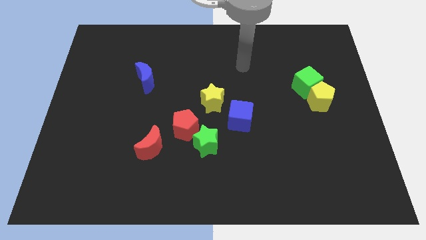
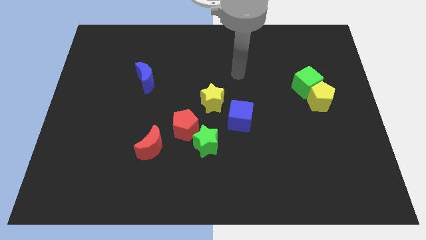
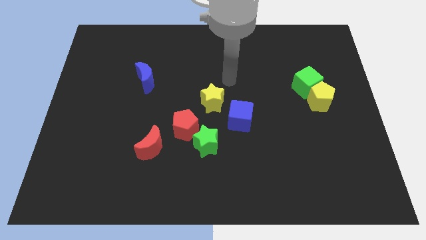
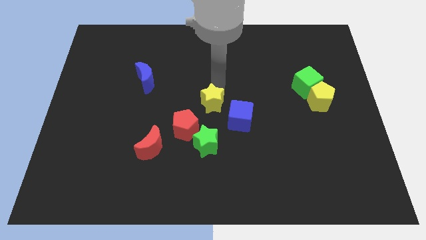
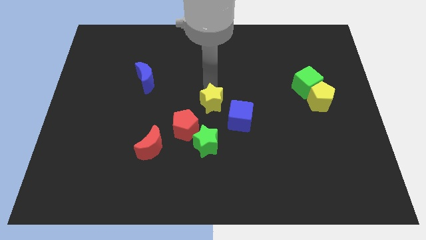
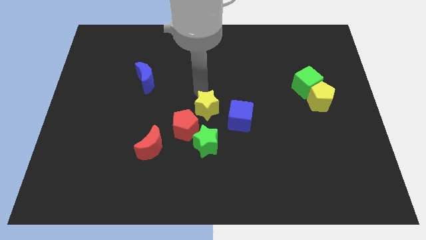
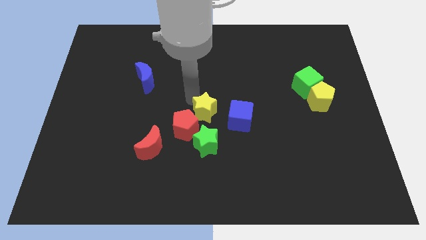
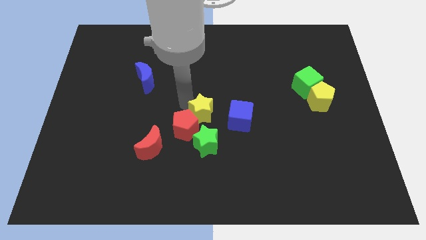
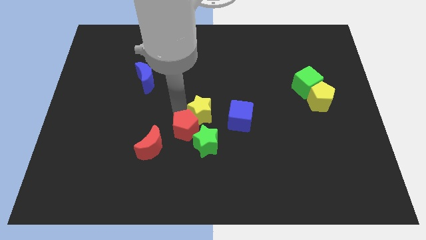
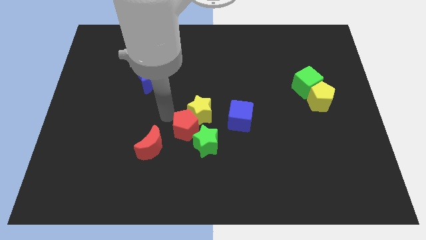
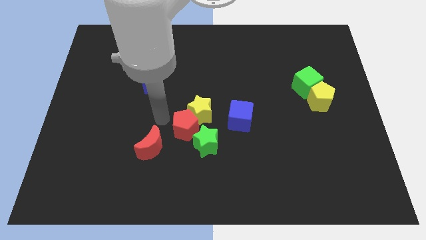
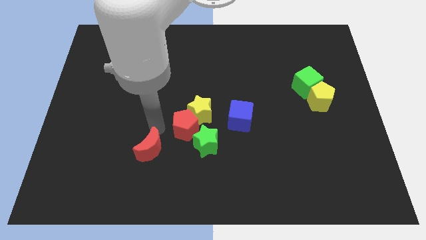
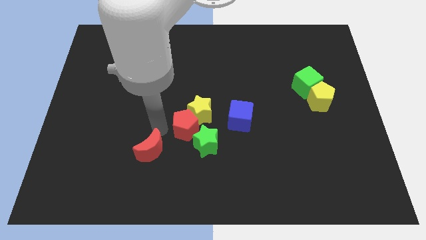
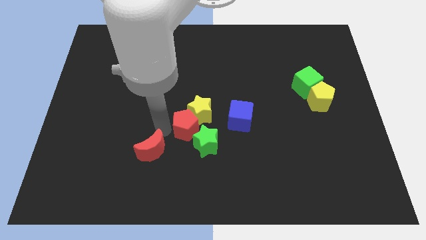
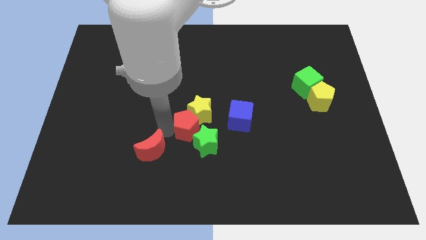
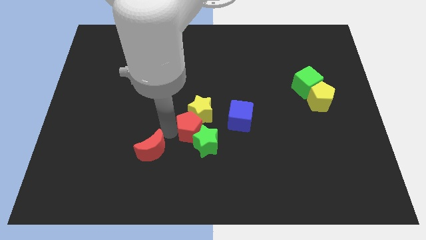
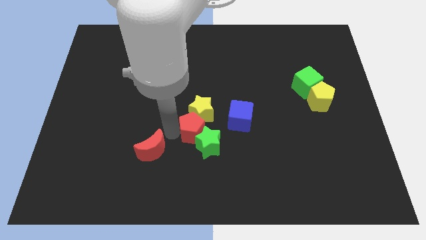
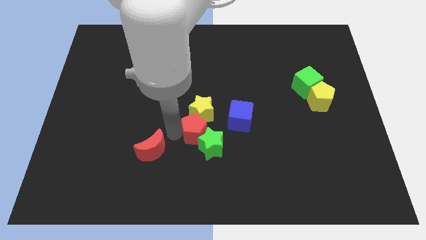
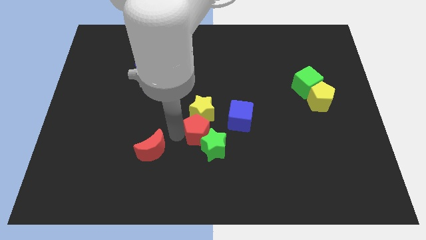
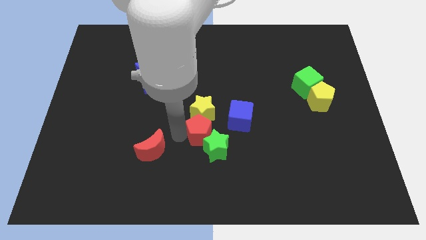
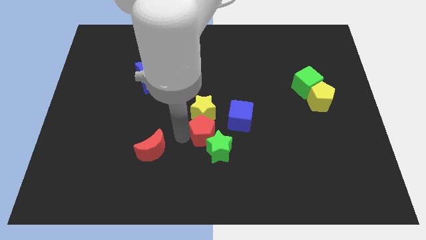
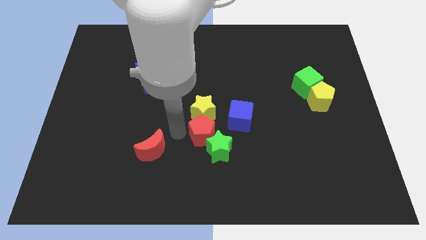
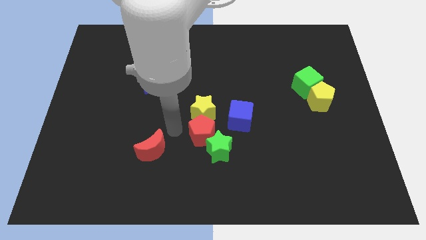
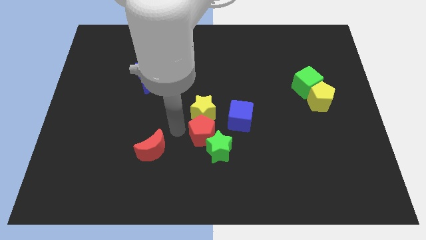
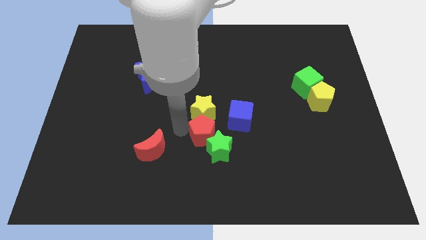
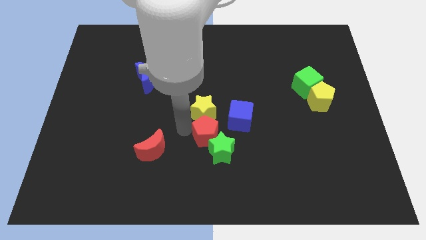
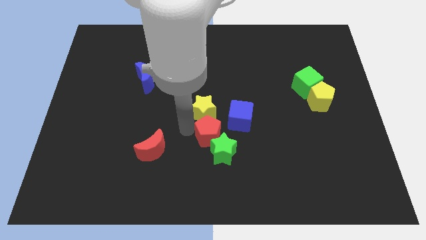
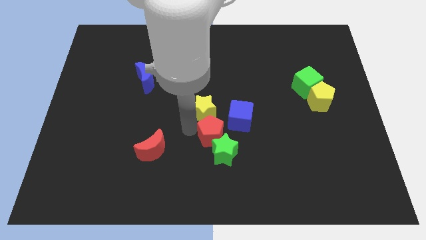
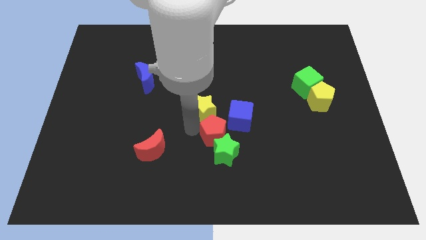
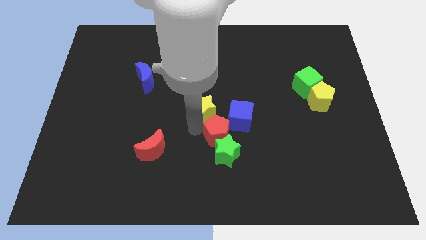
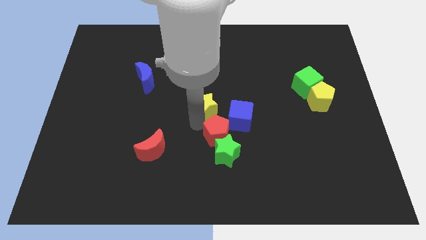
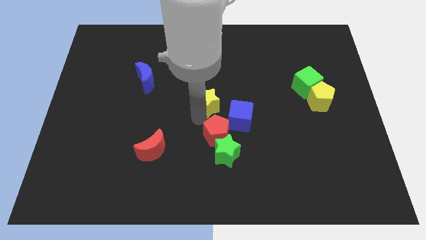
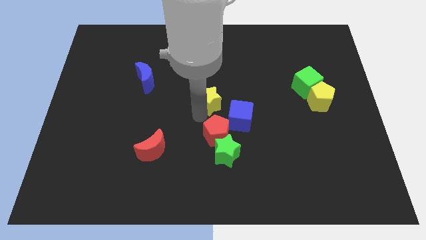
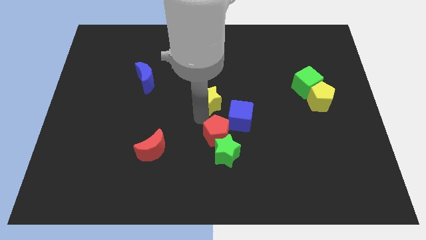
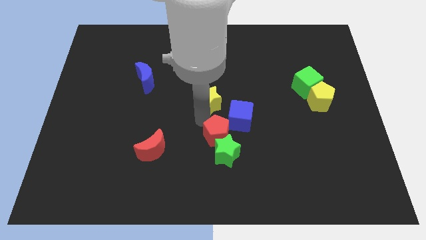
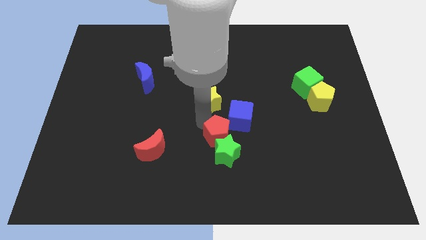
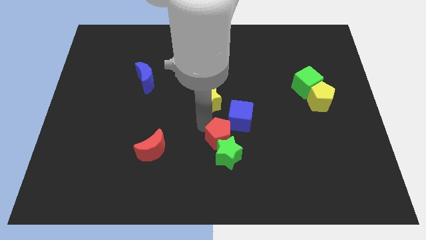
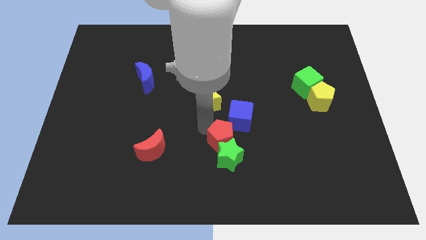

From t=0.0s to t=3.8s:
slide the red pentagon diagonally down and right a bit

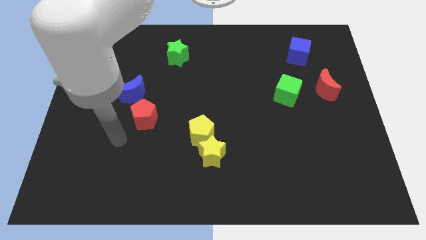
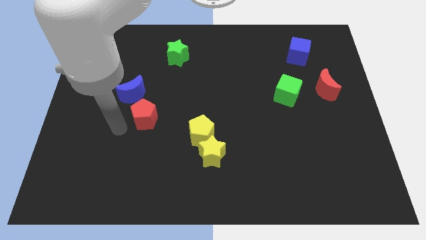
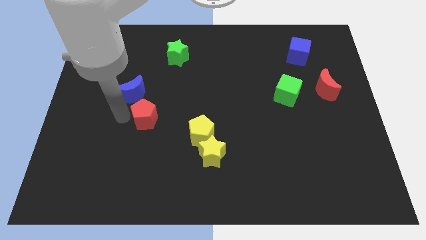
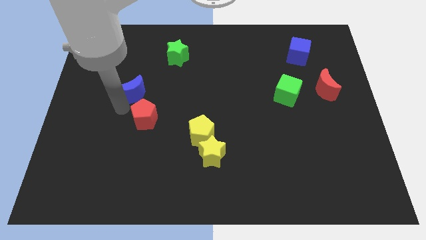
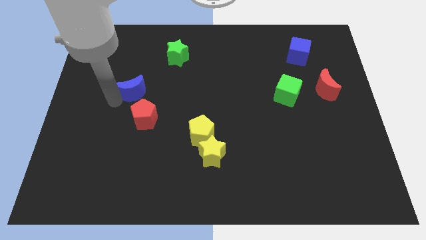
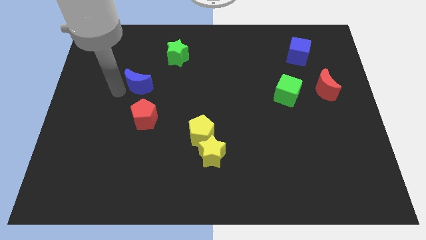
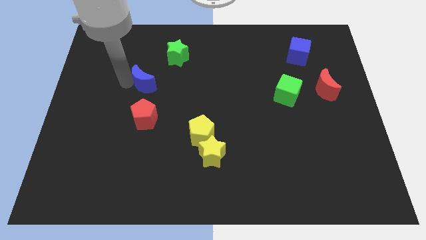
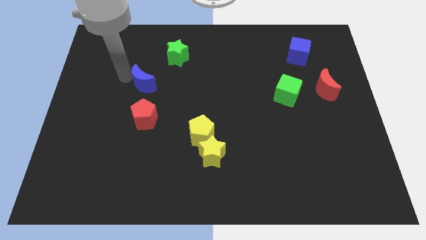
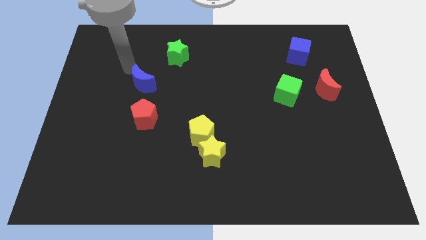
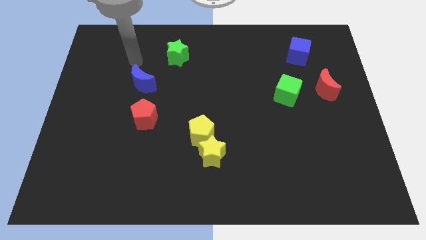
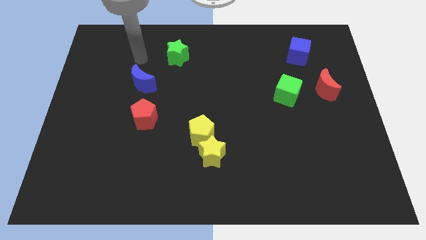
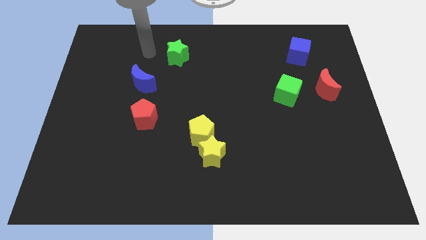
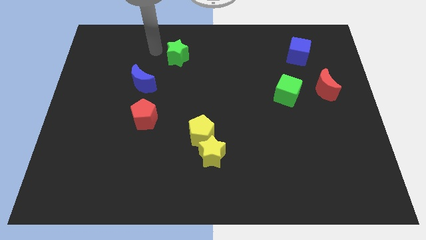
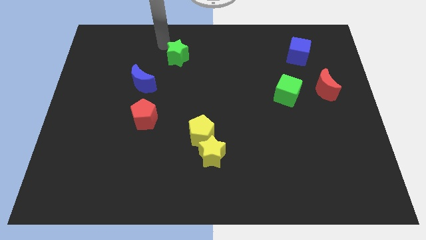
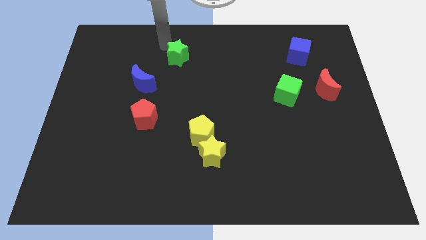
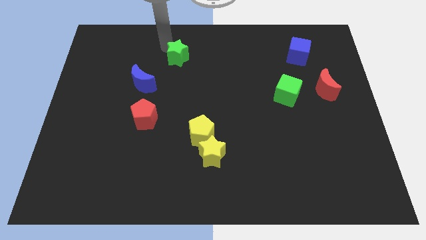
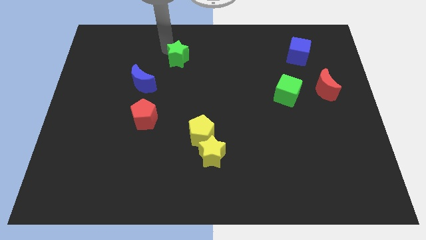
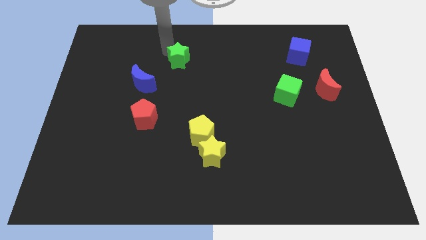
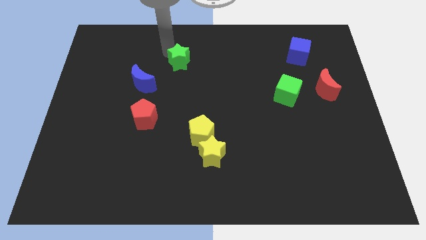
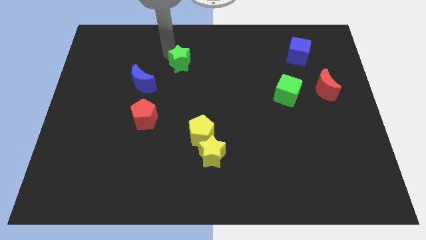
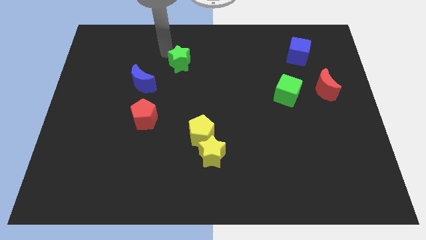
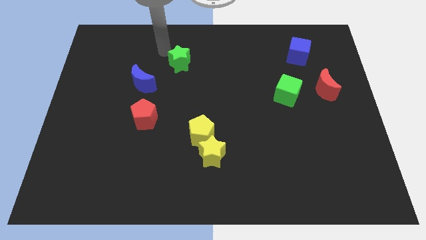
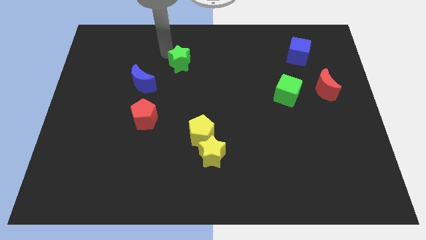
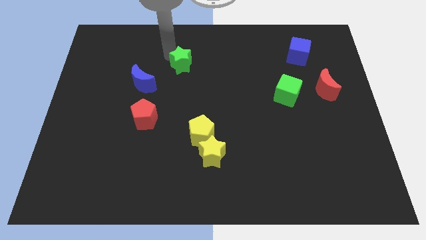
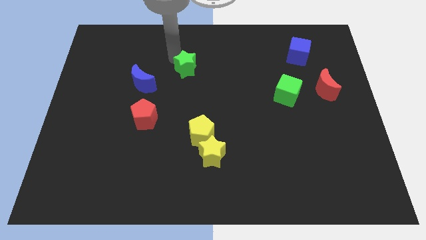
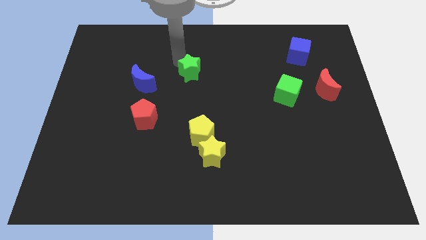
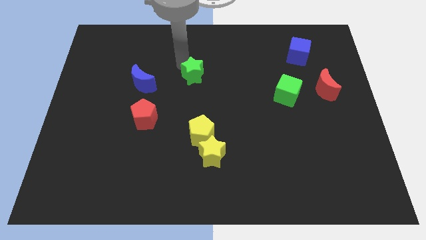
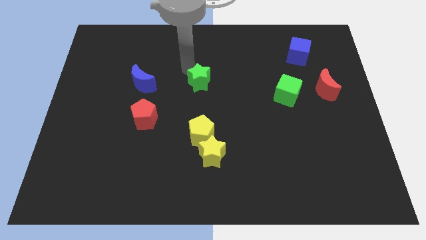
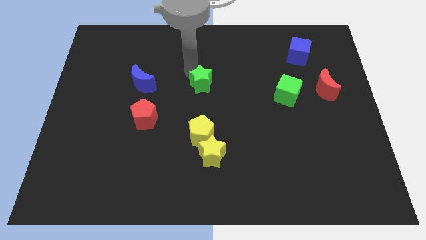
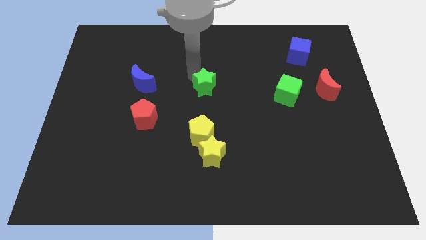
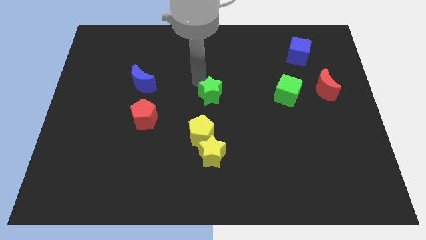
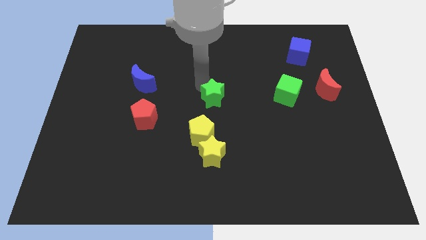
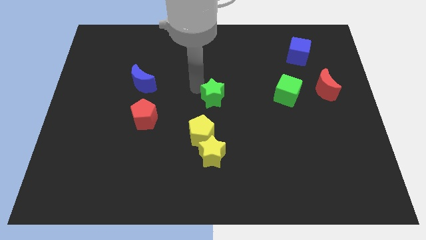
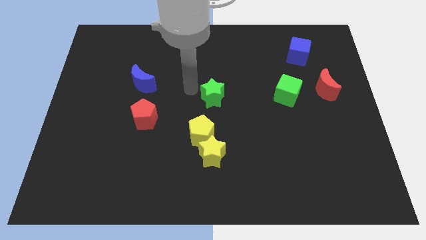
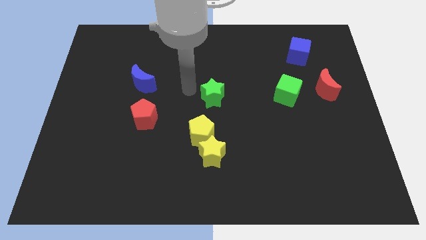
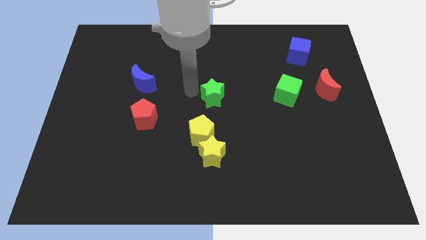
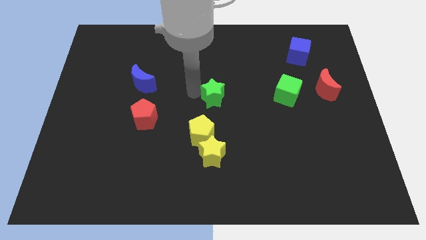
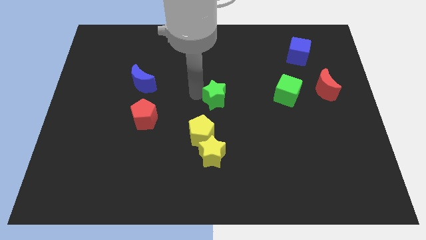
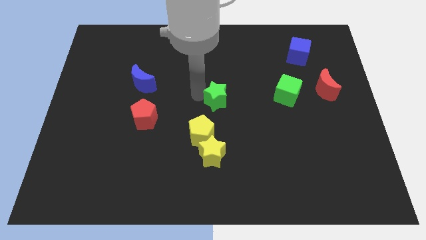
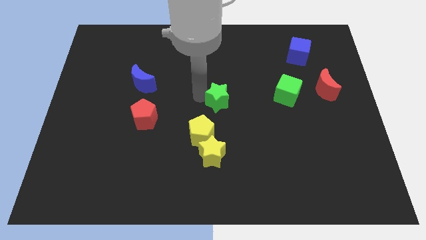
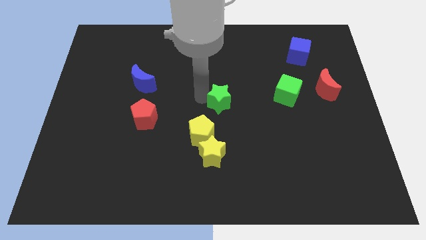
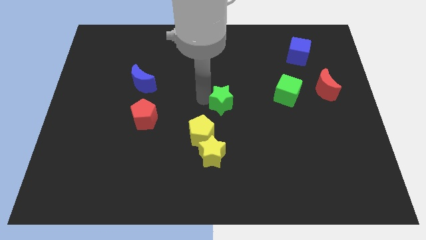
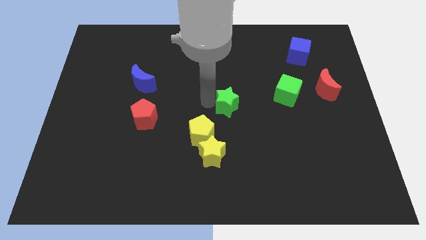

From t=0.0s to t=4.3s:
move the green star down and right
